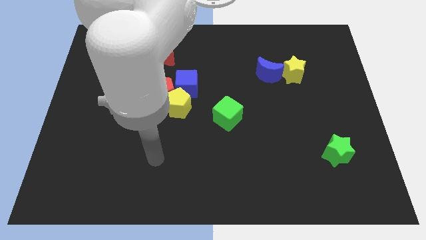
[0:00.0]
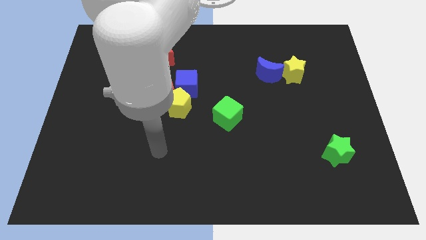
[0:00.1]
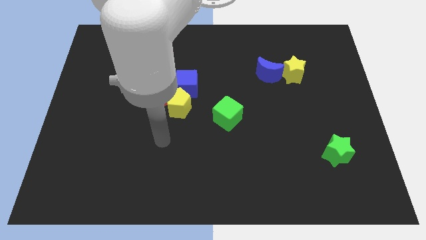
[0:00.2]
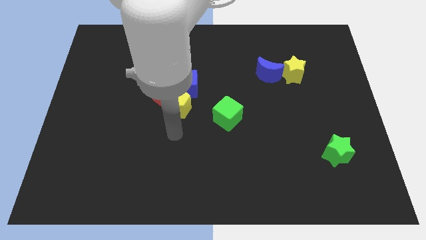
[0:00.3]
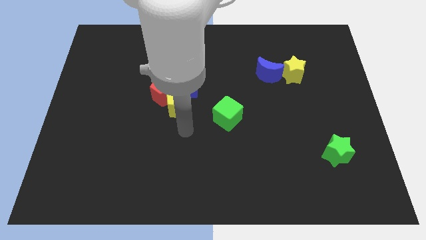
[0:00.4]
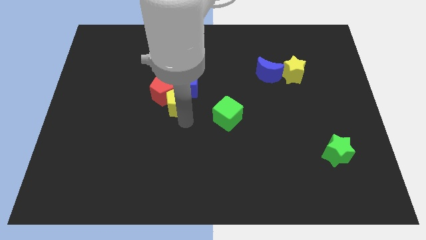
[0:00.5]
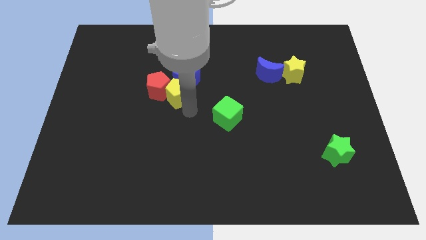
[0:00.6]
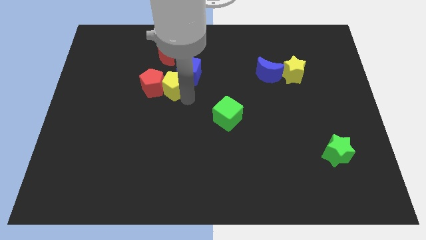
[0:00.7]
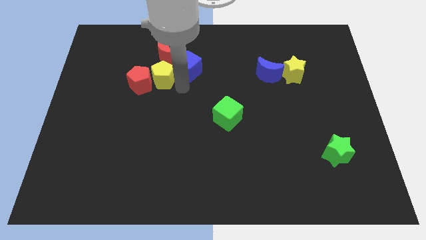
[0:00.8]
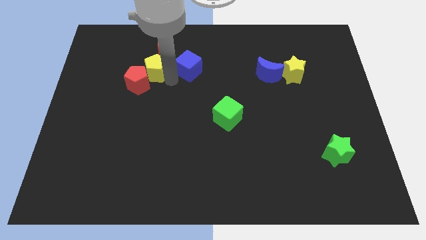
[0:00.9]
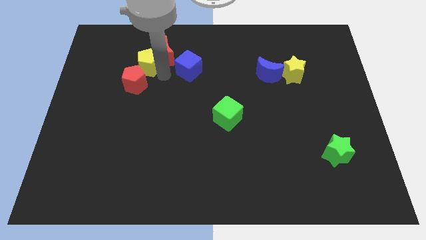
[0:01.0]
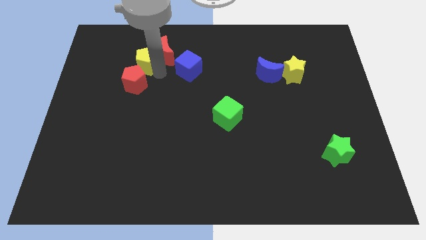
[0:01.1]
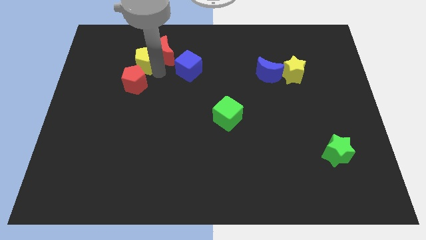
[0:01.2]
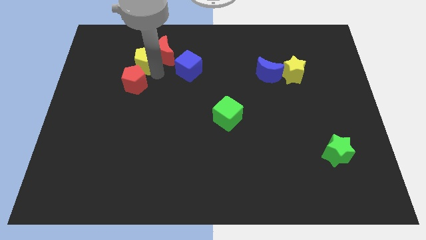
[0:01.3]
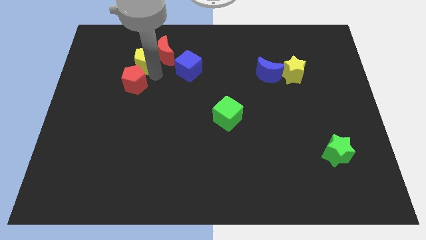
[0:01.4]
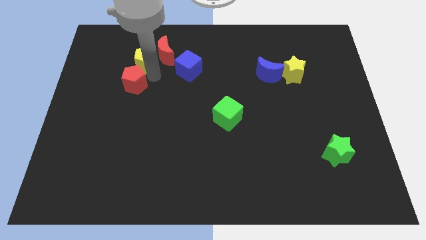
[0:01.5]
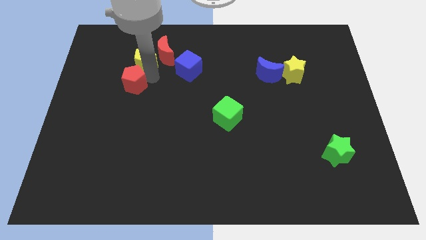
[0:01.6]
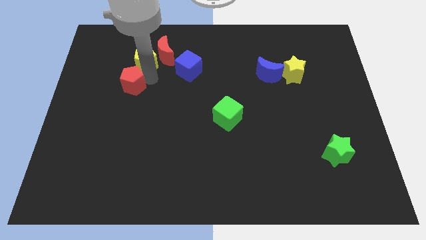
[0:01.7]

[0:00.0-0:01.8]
move the red pentagon away from the yellow pentagon and blue cube

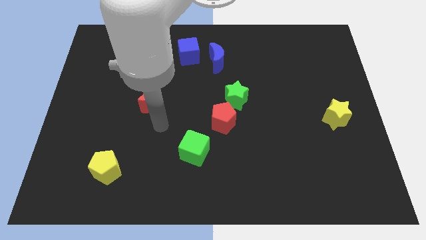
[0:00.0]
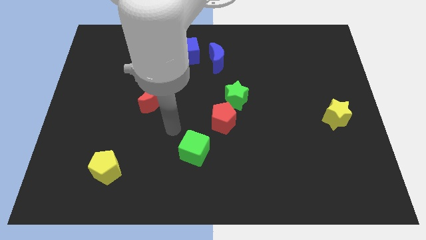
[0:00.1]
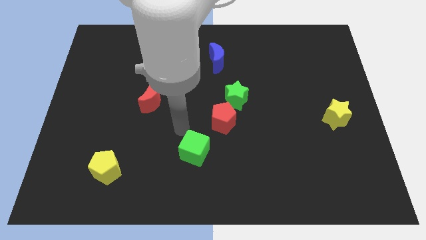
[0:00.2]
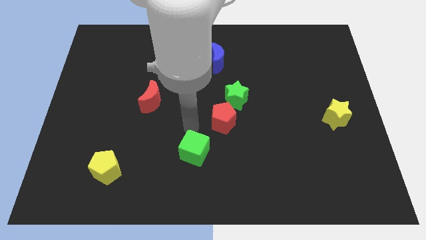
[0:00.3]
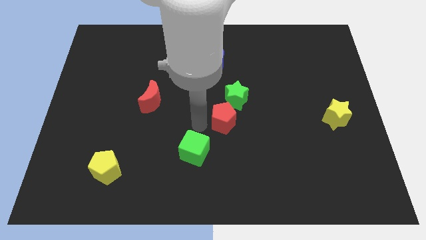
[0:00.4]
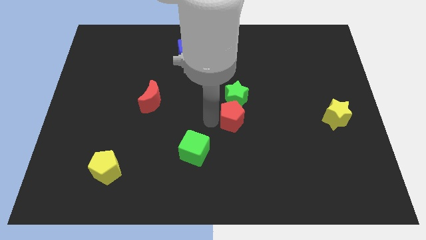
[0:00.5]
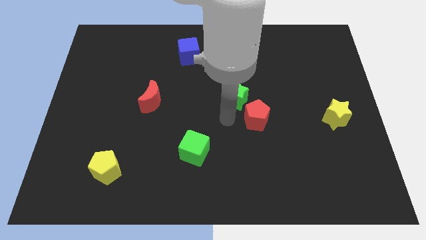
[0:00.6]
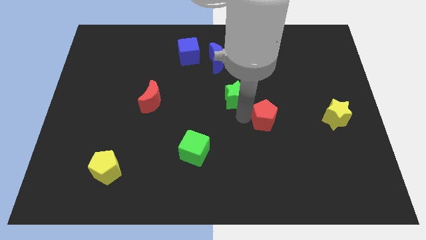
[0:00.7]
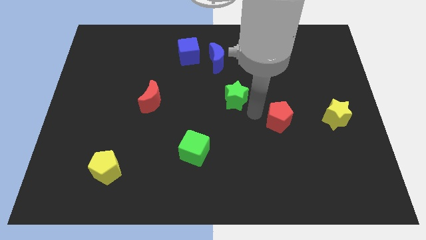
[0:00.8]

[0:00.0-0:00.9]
separate the green star from the red pentagon

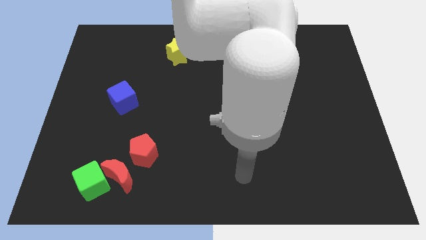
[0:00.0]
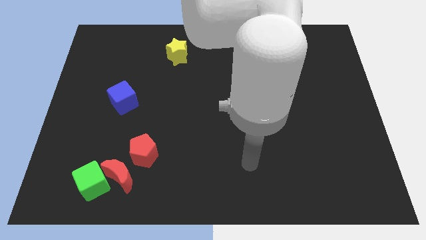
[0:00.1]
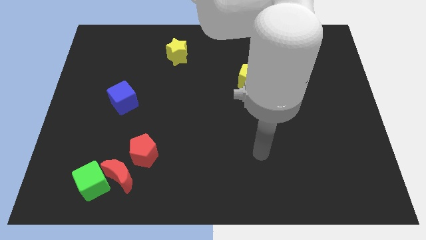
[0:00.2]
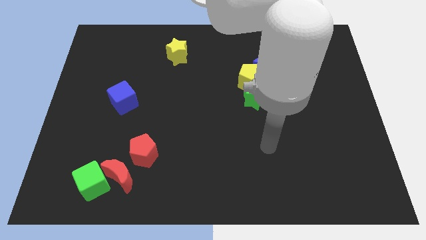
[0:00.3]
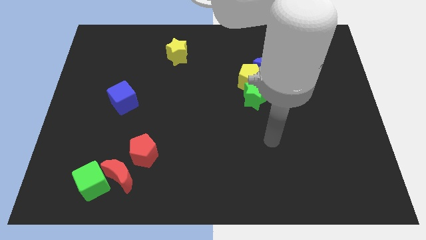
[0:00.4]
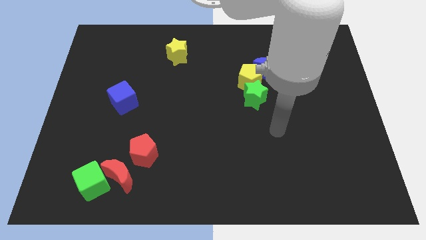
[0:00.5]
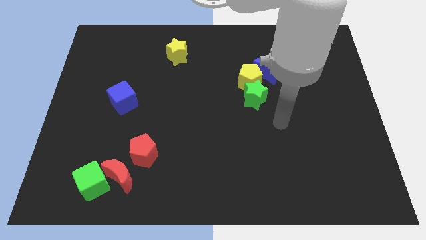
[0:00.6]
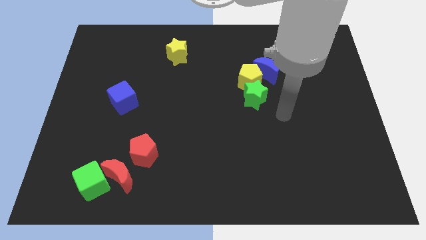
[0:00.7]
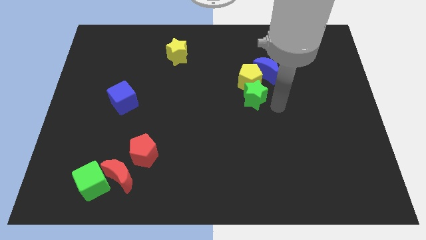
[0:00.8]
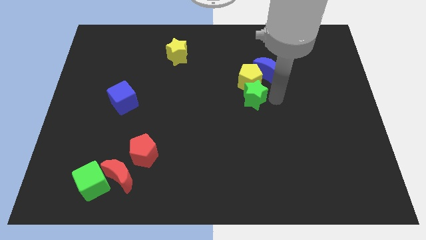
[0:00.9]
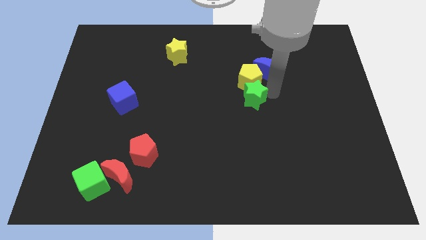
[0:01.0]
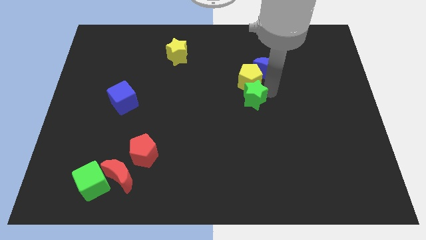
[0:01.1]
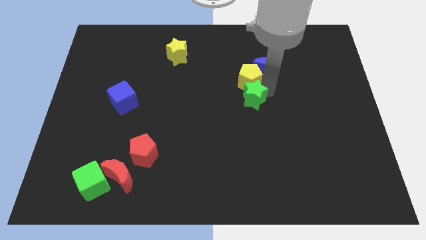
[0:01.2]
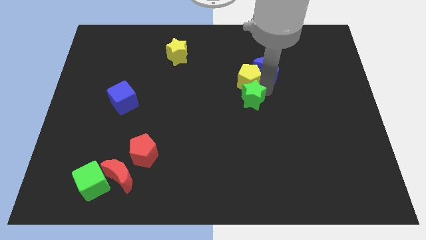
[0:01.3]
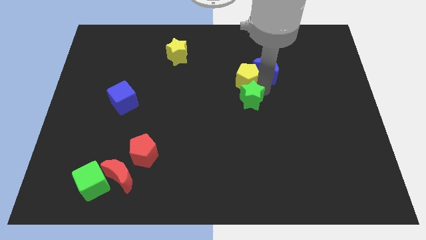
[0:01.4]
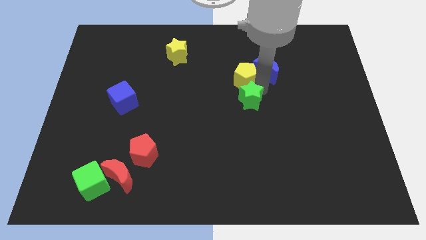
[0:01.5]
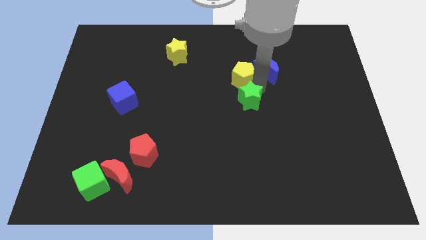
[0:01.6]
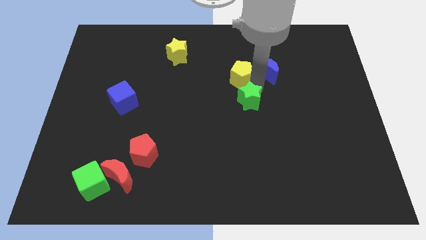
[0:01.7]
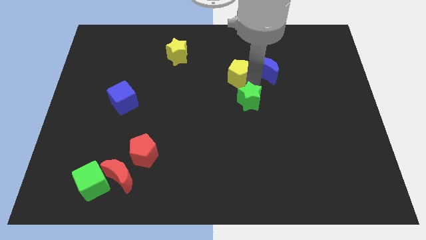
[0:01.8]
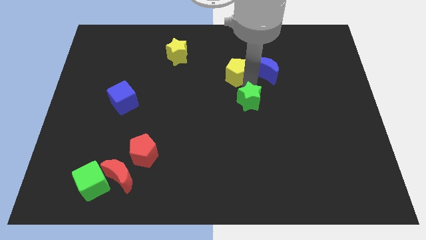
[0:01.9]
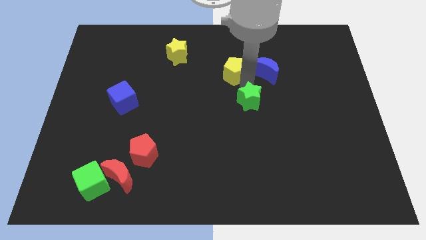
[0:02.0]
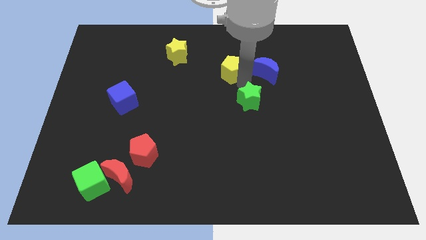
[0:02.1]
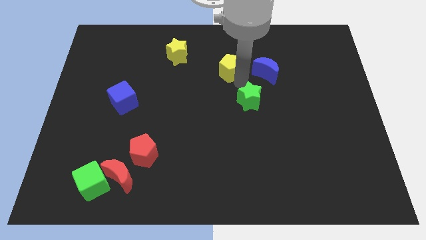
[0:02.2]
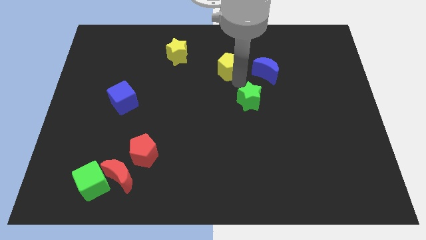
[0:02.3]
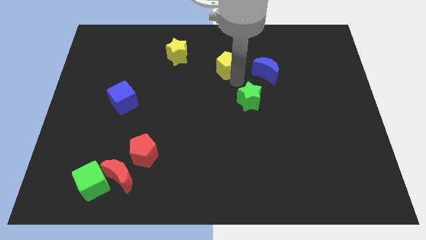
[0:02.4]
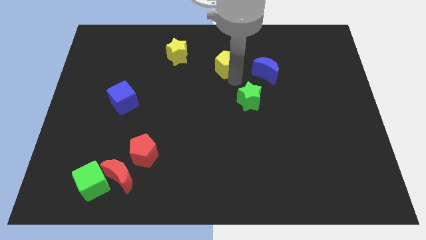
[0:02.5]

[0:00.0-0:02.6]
separate the yellow pentagon from the blue moon and green star

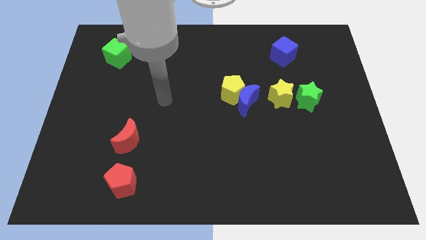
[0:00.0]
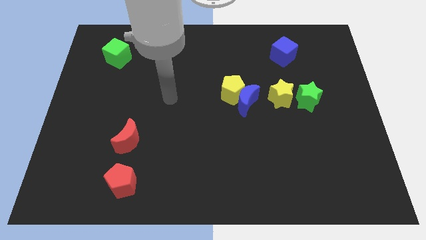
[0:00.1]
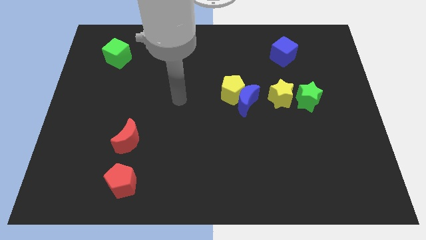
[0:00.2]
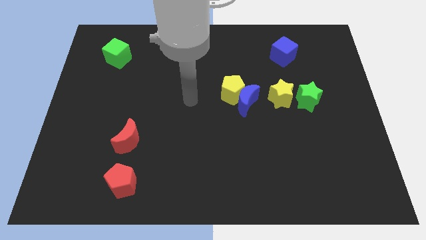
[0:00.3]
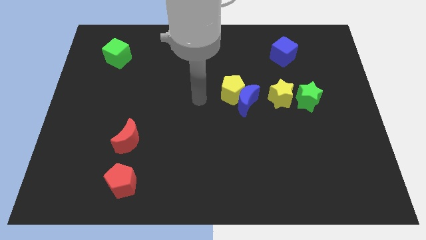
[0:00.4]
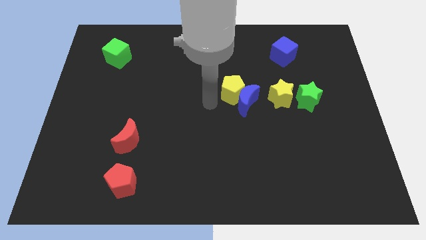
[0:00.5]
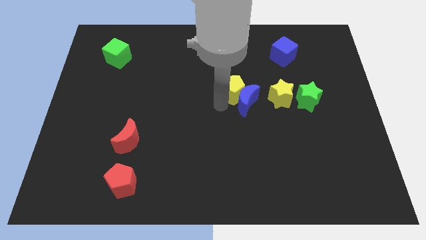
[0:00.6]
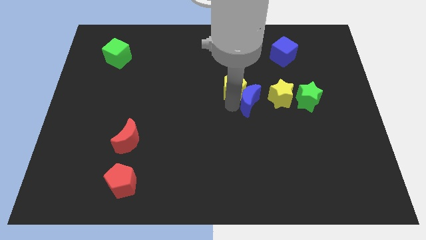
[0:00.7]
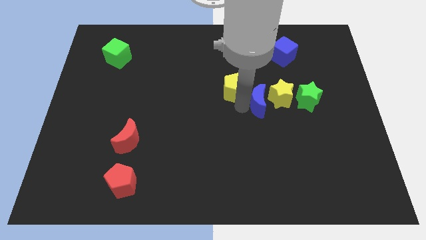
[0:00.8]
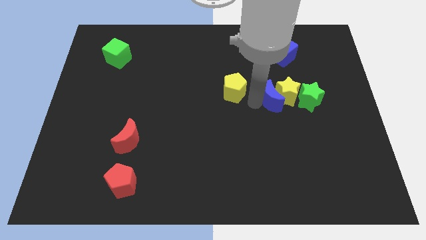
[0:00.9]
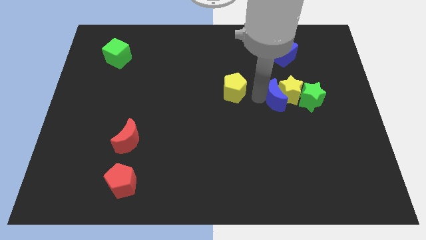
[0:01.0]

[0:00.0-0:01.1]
move the yellow pentagon away from the blue moon

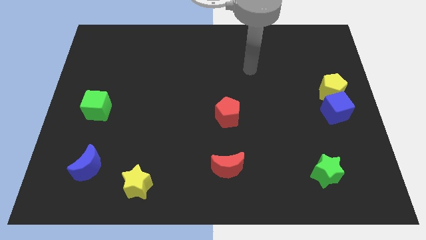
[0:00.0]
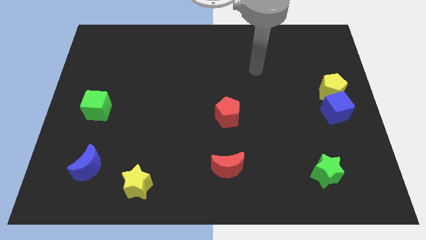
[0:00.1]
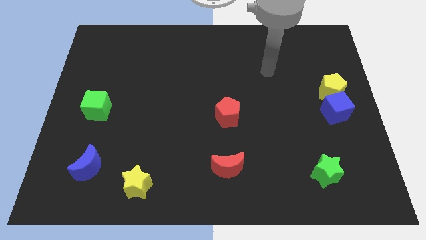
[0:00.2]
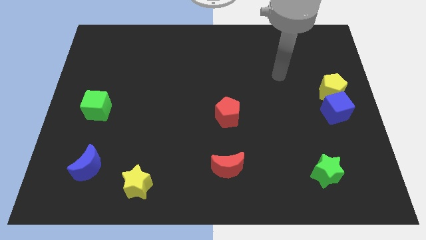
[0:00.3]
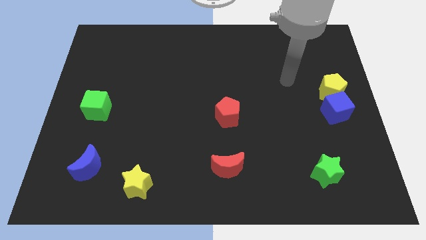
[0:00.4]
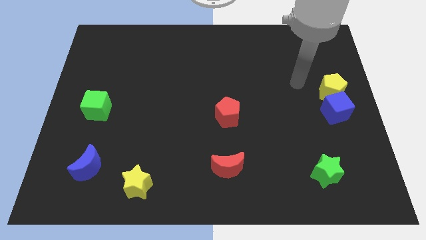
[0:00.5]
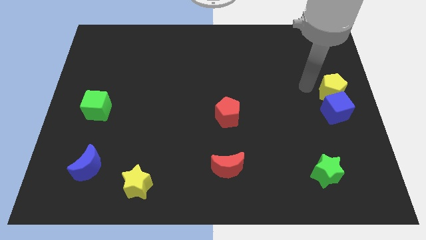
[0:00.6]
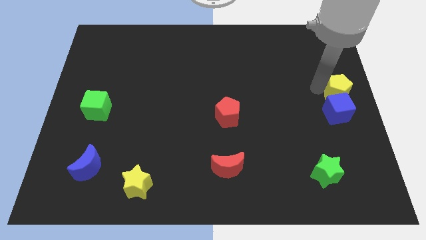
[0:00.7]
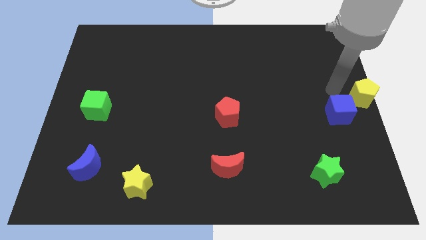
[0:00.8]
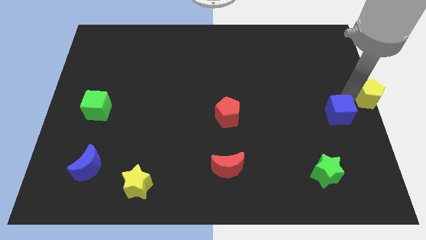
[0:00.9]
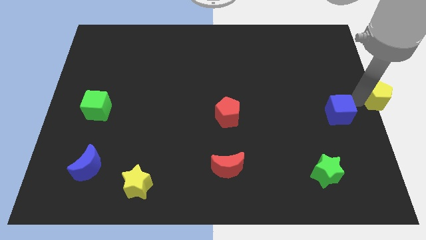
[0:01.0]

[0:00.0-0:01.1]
separate the blue cube from the yellow pentagon

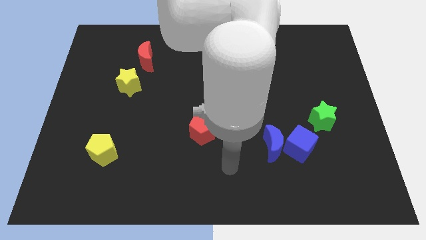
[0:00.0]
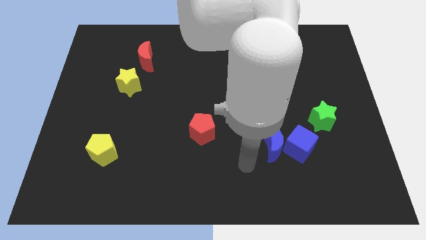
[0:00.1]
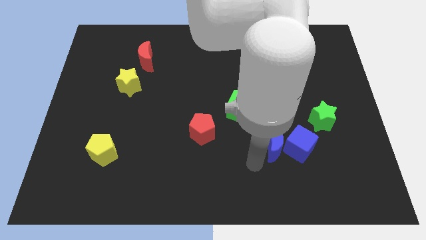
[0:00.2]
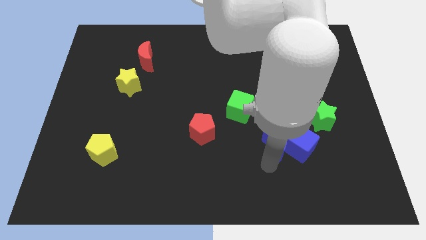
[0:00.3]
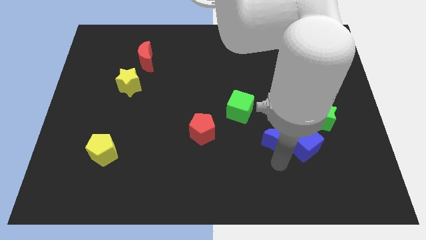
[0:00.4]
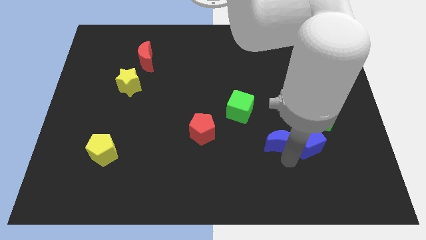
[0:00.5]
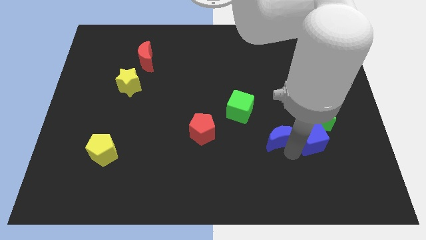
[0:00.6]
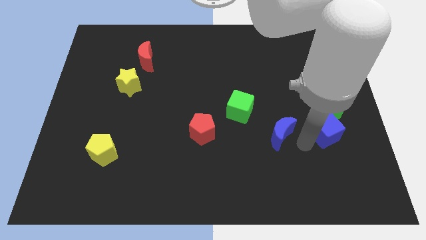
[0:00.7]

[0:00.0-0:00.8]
pull the blue moon apart from the blue cube

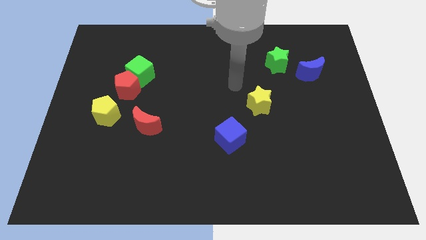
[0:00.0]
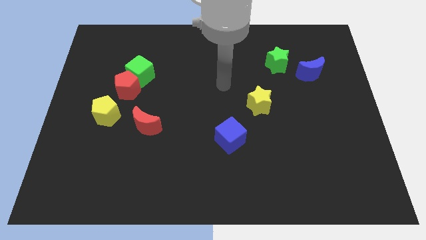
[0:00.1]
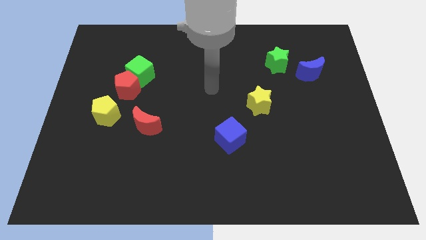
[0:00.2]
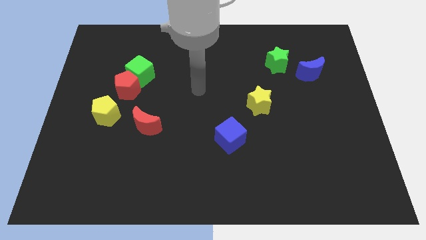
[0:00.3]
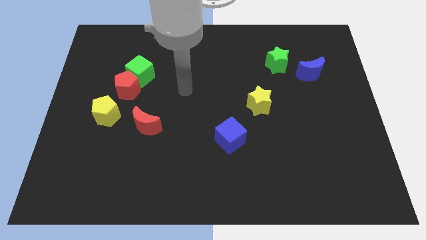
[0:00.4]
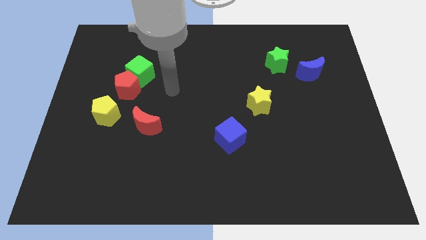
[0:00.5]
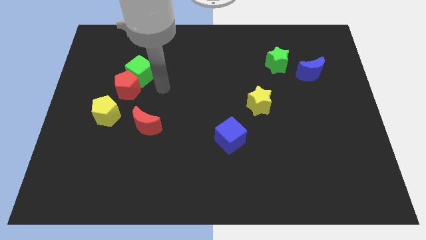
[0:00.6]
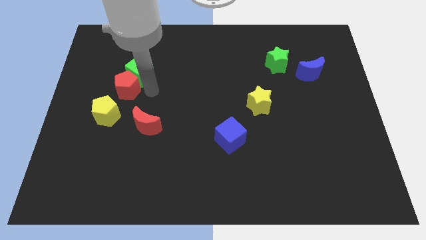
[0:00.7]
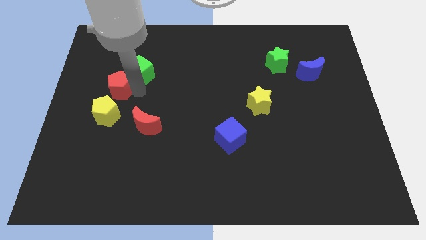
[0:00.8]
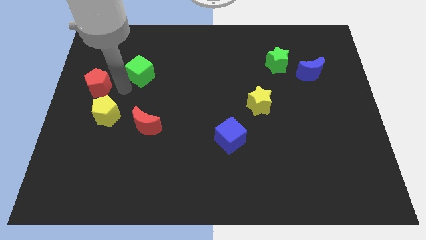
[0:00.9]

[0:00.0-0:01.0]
separate the green cube from the red pentagon
